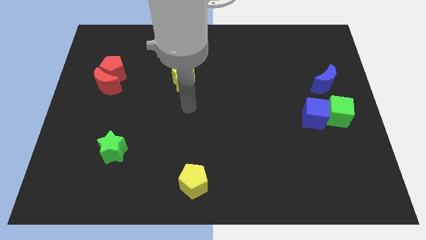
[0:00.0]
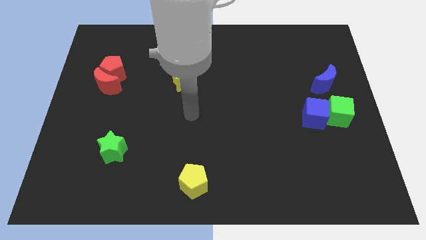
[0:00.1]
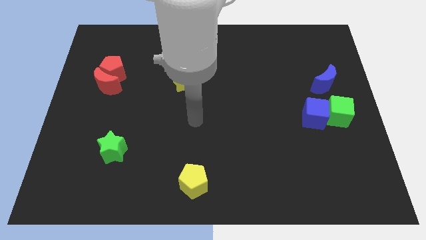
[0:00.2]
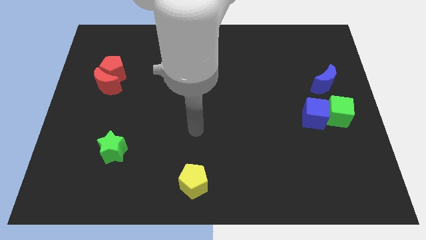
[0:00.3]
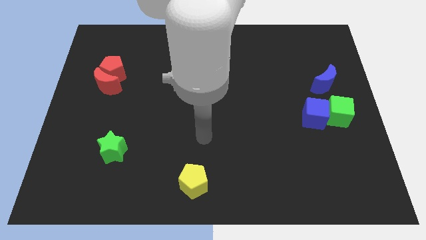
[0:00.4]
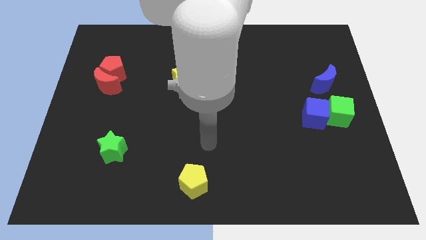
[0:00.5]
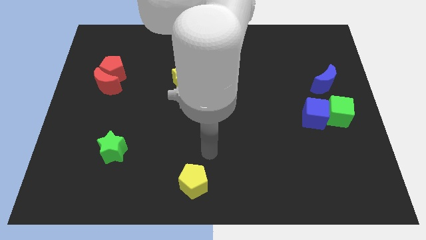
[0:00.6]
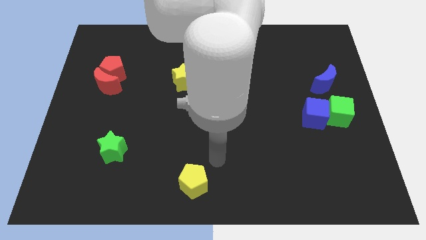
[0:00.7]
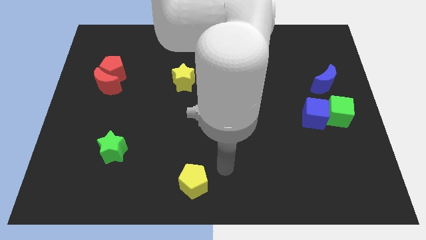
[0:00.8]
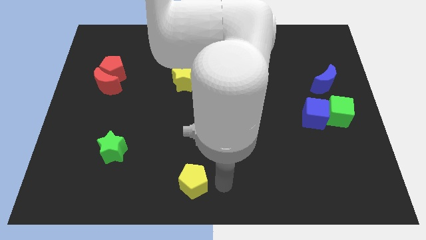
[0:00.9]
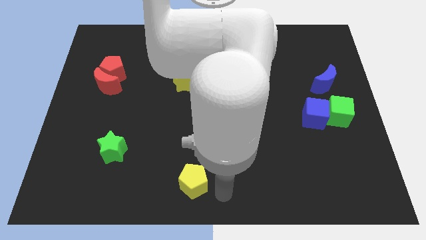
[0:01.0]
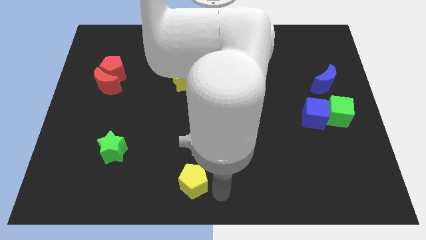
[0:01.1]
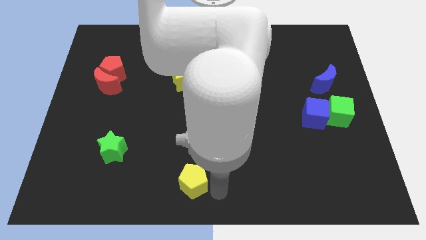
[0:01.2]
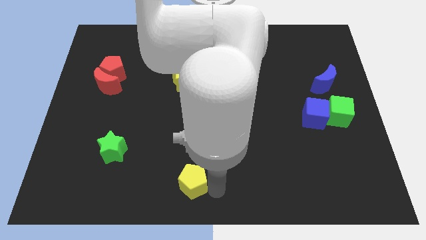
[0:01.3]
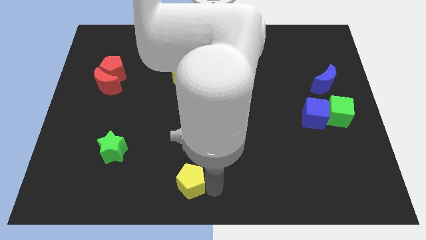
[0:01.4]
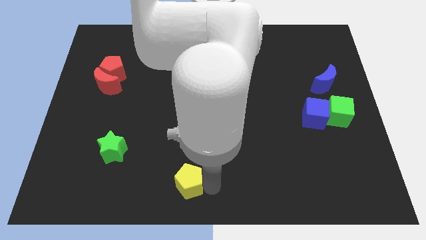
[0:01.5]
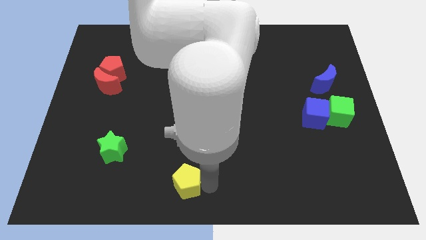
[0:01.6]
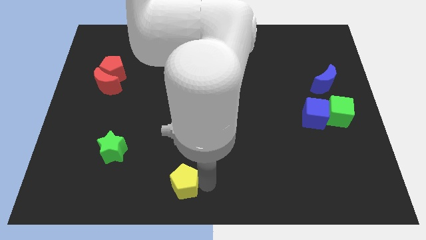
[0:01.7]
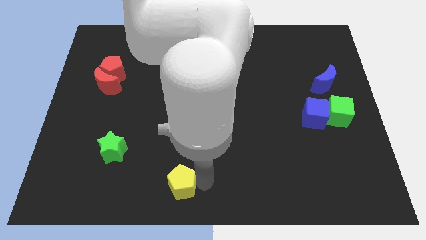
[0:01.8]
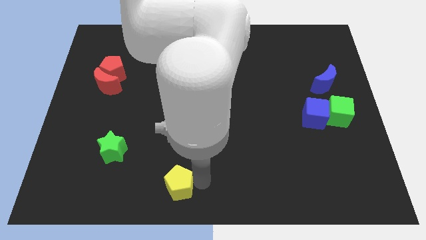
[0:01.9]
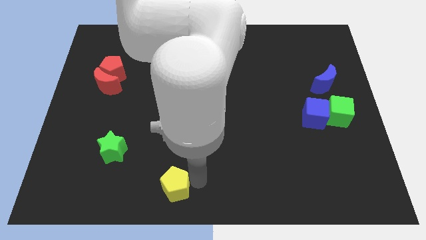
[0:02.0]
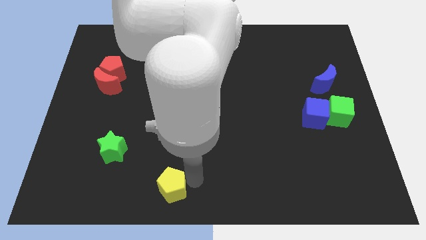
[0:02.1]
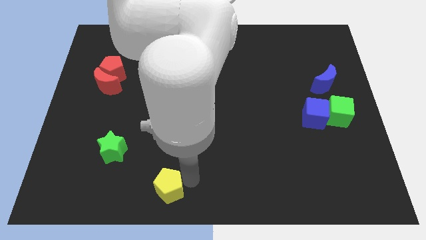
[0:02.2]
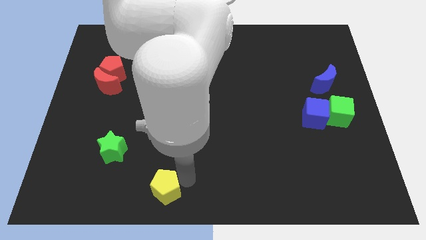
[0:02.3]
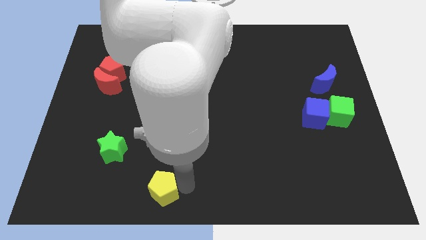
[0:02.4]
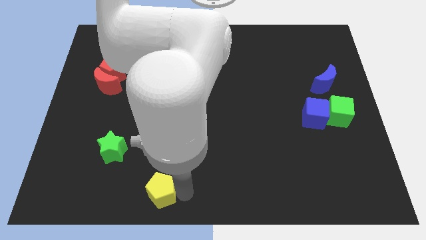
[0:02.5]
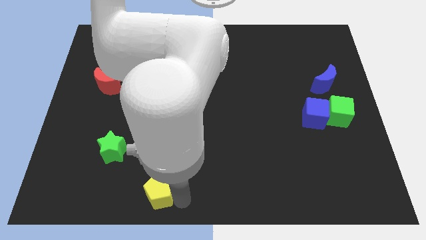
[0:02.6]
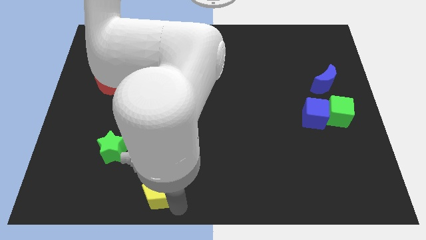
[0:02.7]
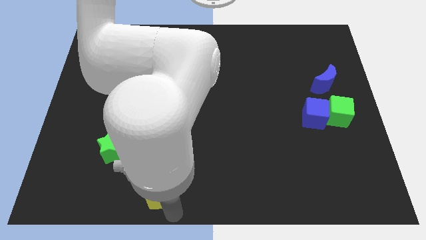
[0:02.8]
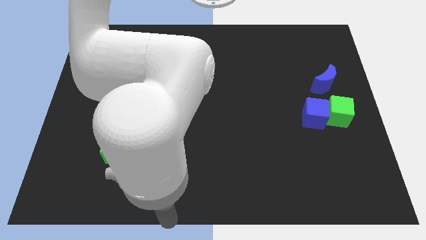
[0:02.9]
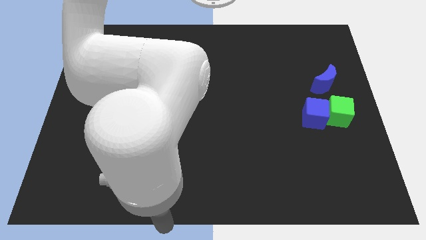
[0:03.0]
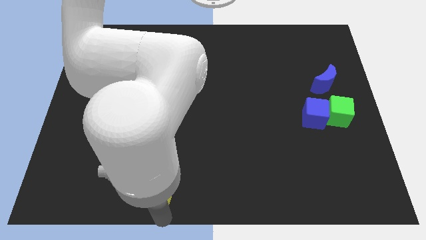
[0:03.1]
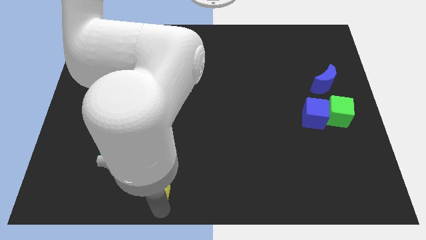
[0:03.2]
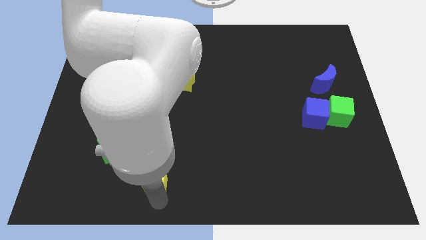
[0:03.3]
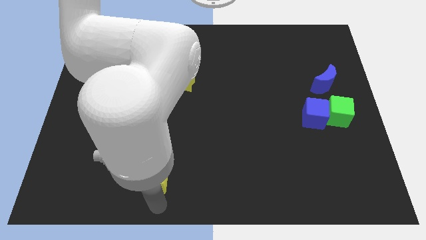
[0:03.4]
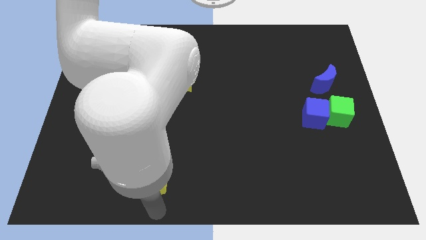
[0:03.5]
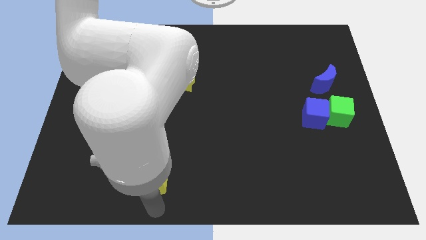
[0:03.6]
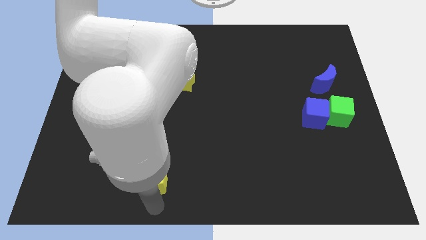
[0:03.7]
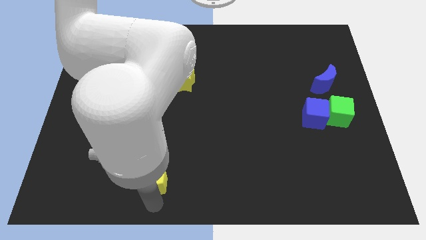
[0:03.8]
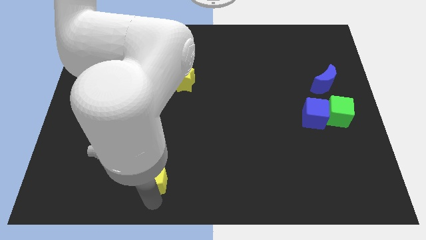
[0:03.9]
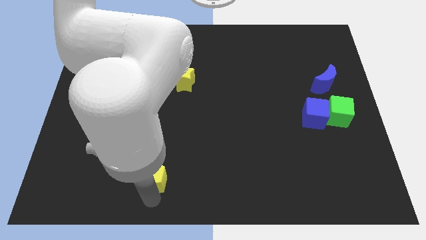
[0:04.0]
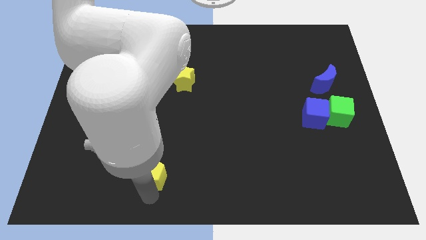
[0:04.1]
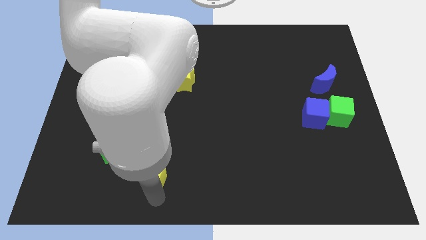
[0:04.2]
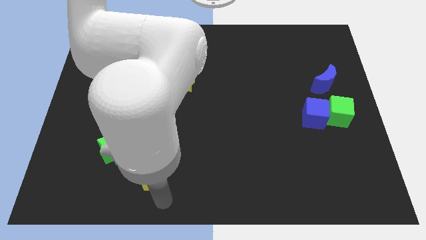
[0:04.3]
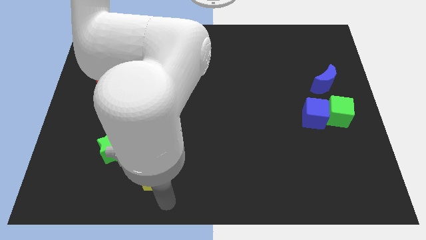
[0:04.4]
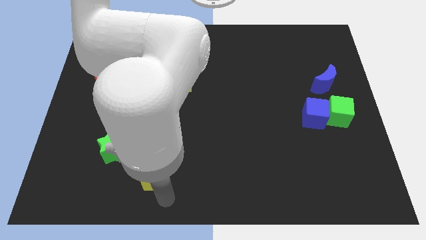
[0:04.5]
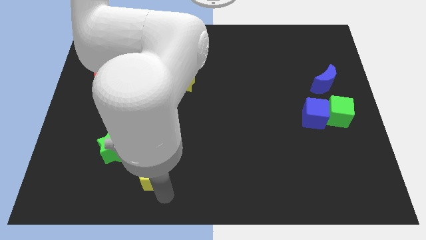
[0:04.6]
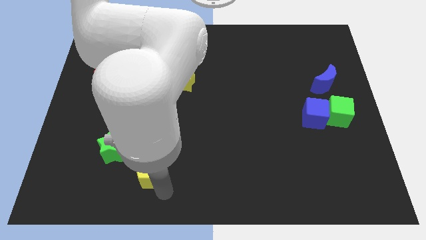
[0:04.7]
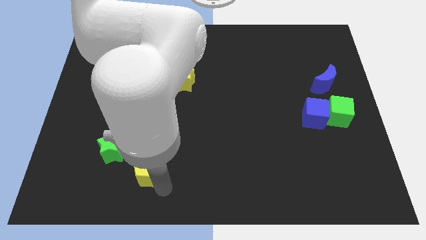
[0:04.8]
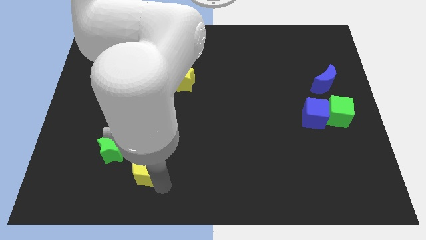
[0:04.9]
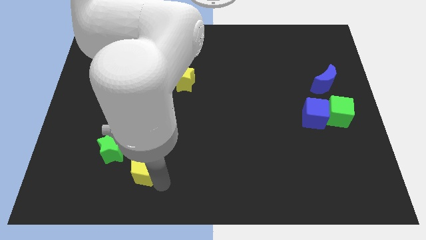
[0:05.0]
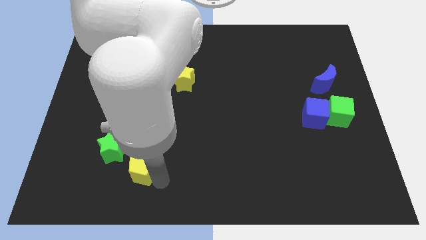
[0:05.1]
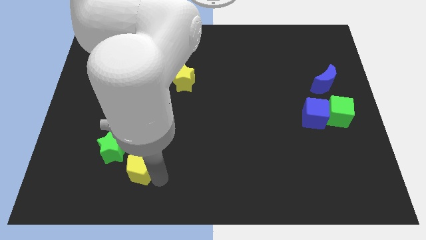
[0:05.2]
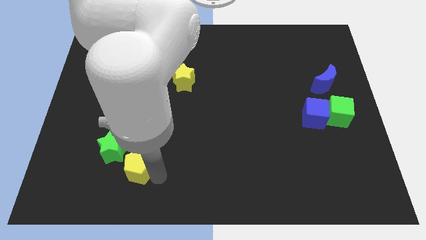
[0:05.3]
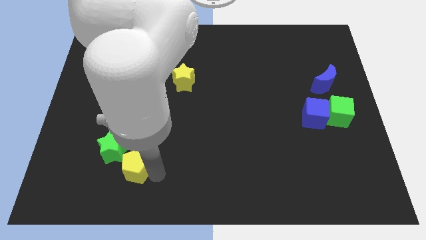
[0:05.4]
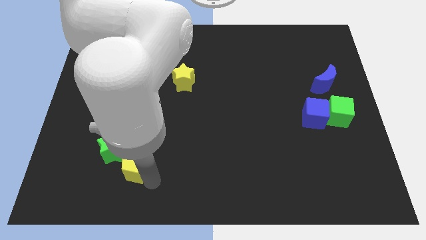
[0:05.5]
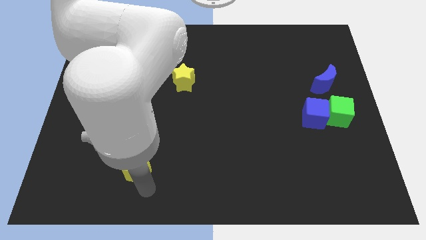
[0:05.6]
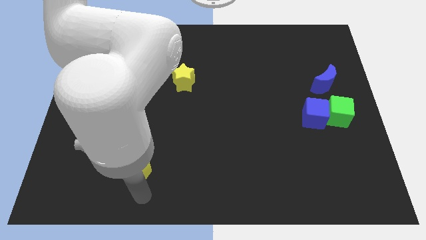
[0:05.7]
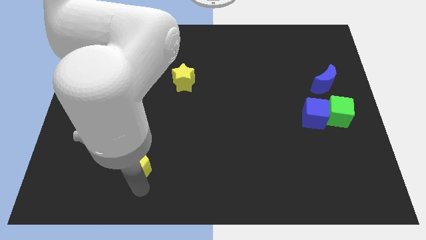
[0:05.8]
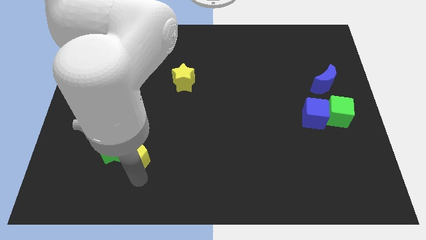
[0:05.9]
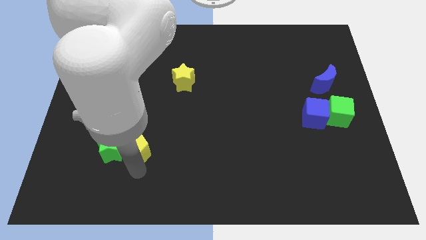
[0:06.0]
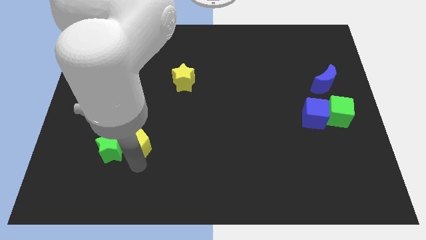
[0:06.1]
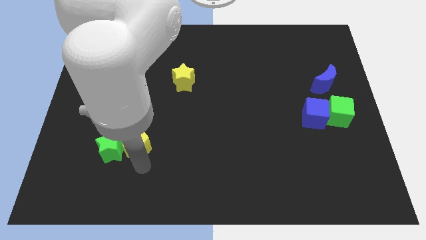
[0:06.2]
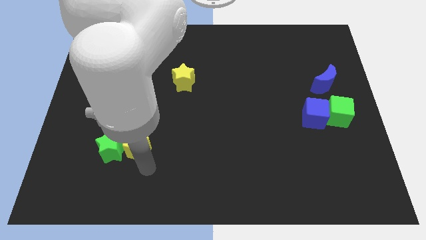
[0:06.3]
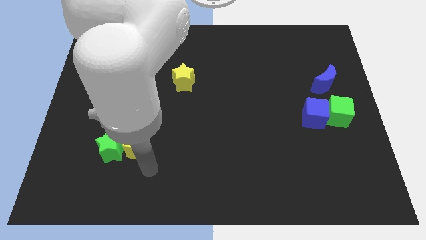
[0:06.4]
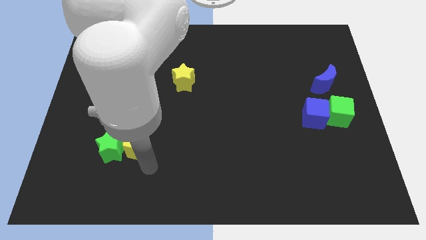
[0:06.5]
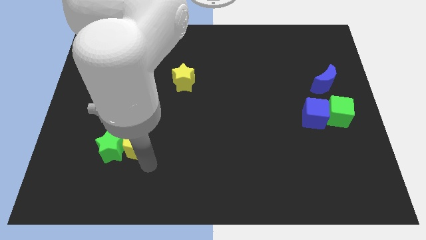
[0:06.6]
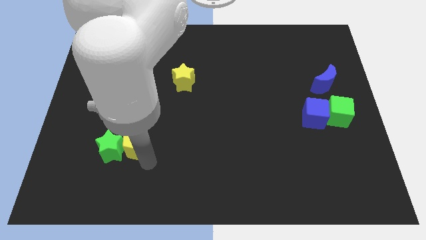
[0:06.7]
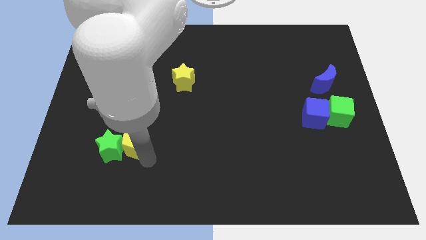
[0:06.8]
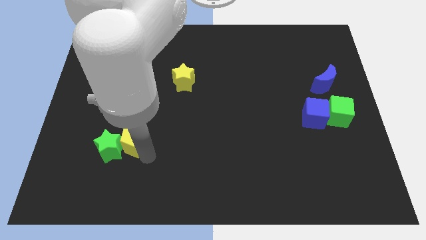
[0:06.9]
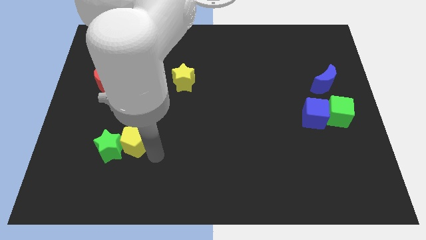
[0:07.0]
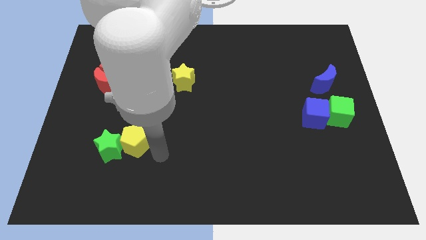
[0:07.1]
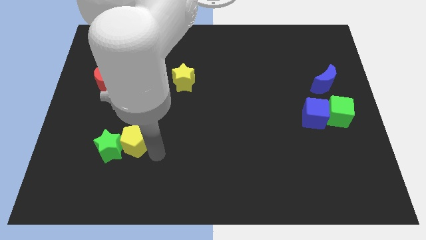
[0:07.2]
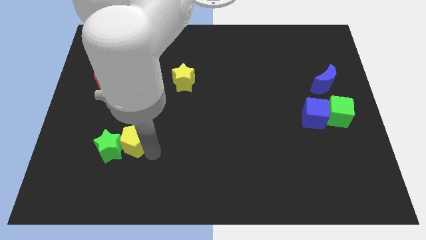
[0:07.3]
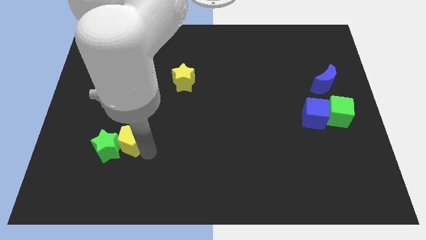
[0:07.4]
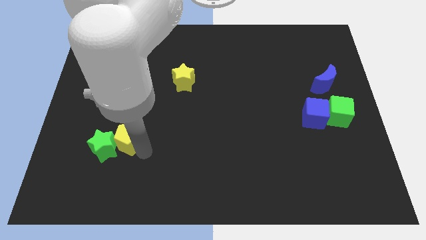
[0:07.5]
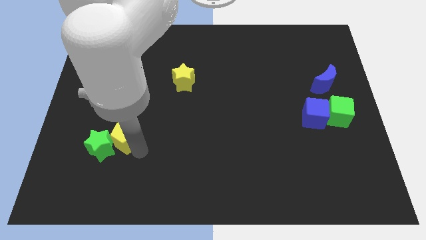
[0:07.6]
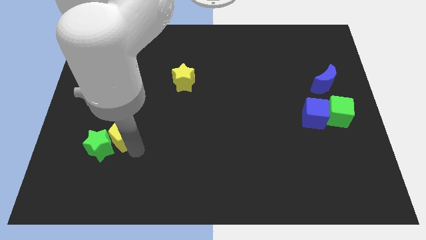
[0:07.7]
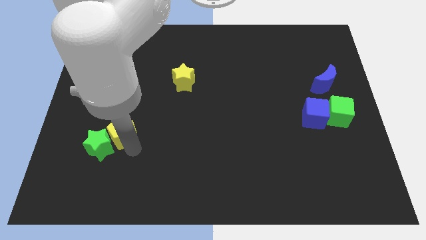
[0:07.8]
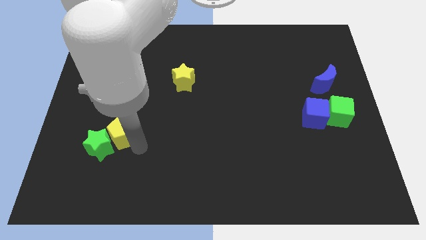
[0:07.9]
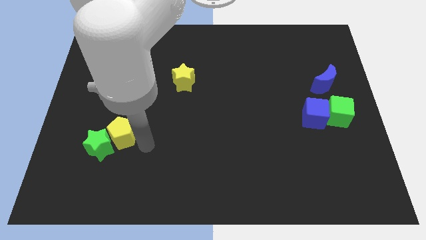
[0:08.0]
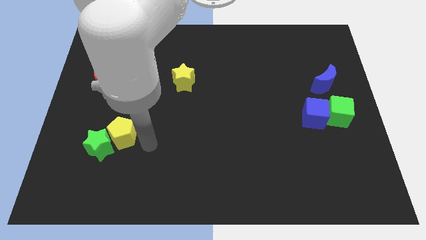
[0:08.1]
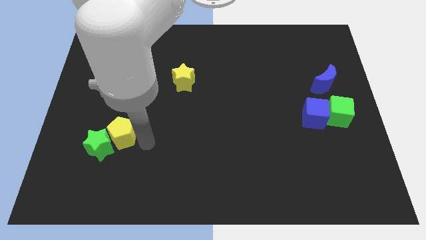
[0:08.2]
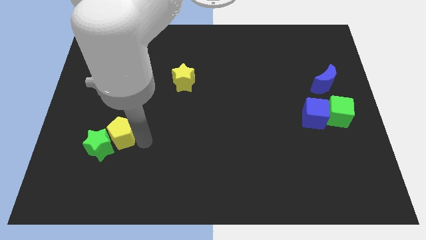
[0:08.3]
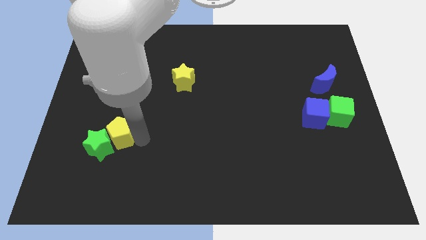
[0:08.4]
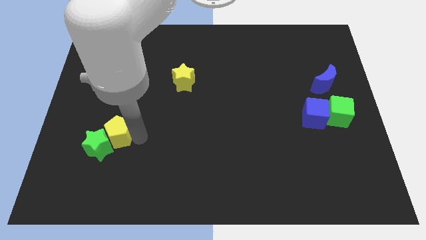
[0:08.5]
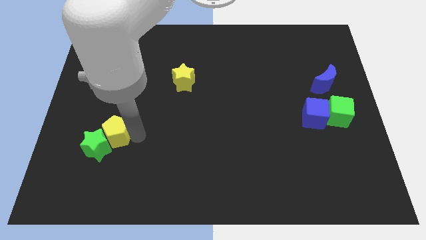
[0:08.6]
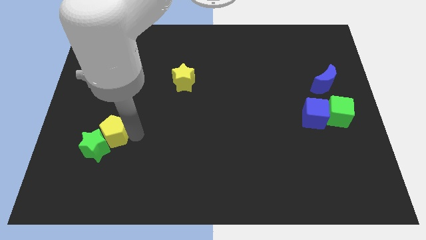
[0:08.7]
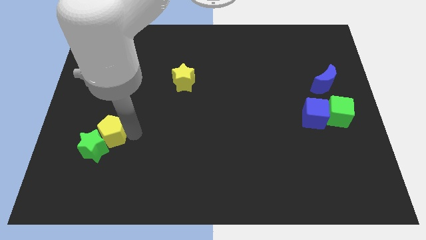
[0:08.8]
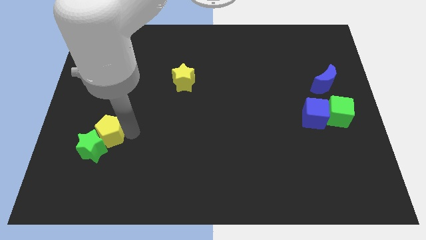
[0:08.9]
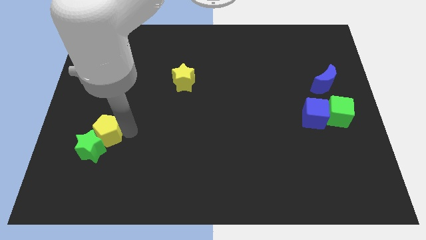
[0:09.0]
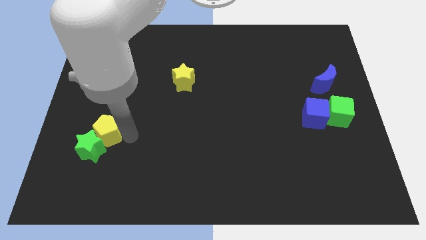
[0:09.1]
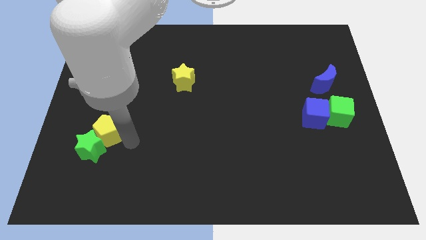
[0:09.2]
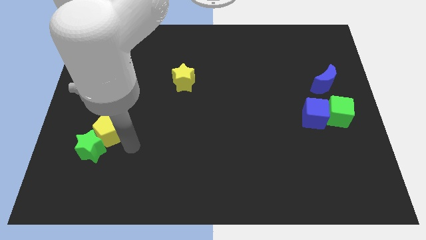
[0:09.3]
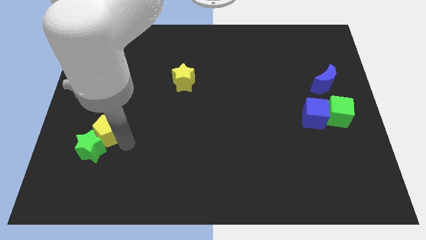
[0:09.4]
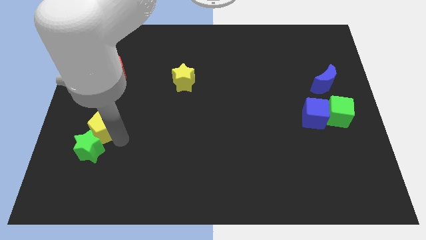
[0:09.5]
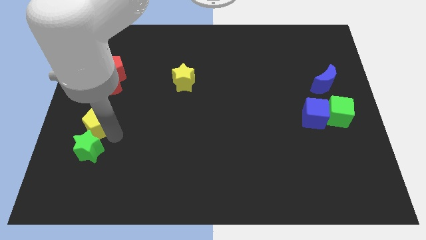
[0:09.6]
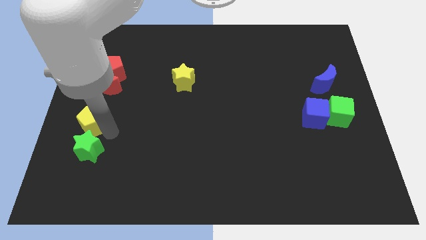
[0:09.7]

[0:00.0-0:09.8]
move the yellow pentagon to the center left
